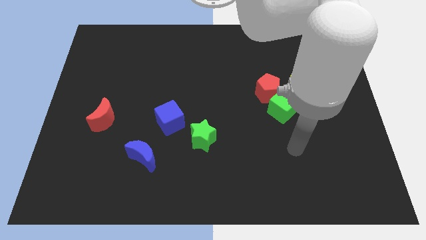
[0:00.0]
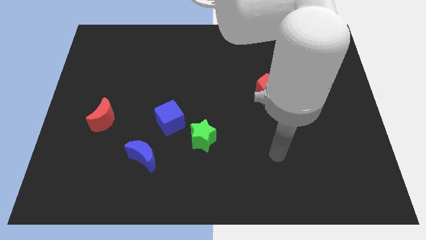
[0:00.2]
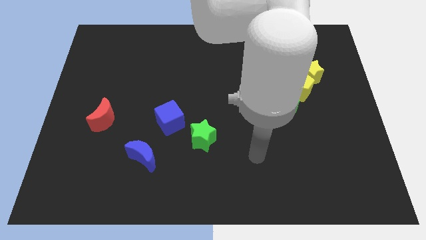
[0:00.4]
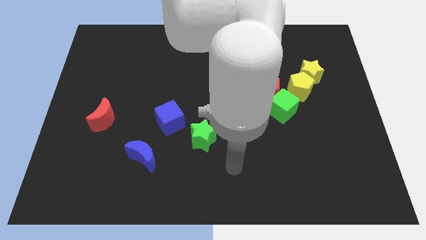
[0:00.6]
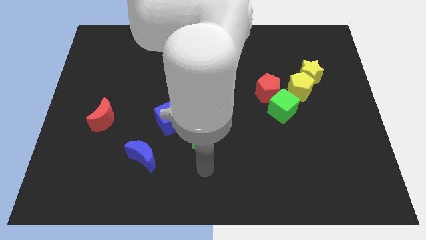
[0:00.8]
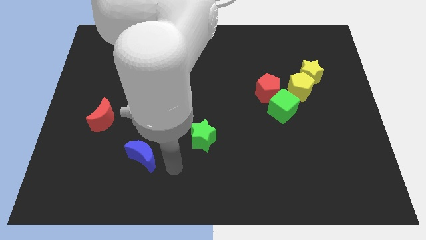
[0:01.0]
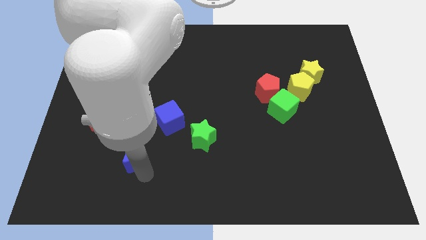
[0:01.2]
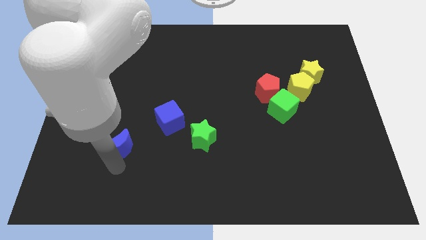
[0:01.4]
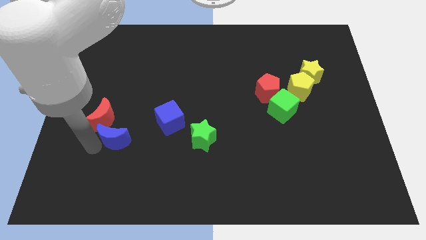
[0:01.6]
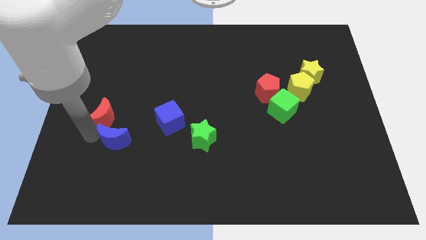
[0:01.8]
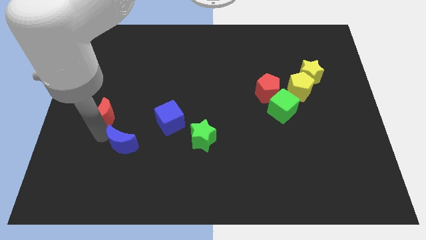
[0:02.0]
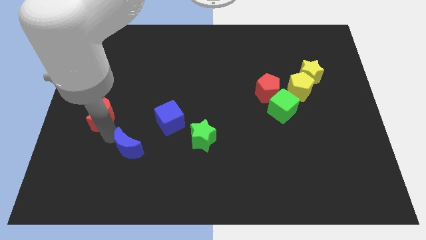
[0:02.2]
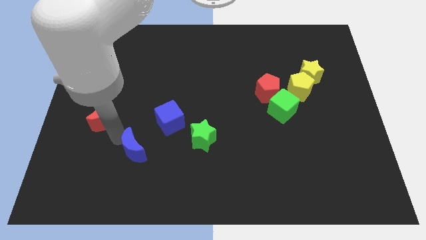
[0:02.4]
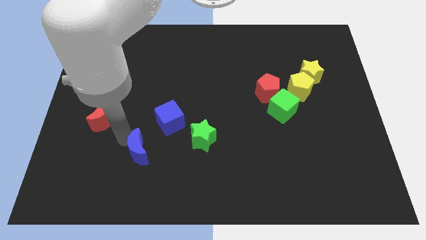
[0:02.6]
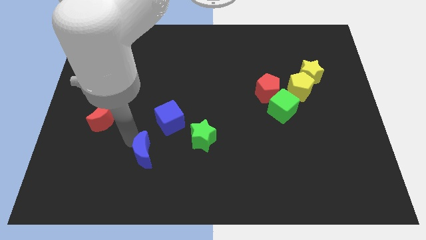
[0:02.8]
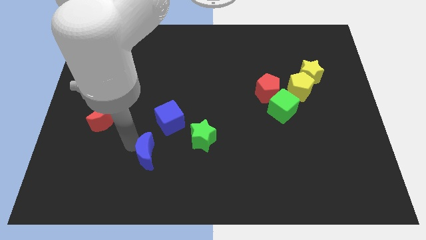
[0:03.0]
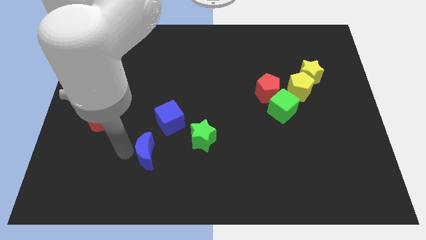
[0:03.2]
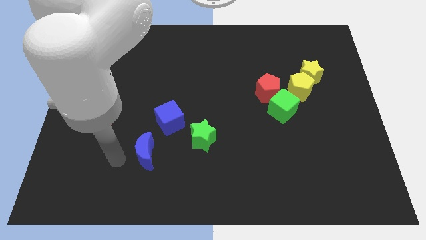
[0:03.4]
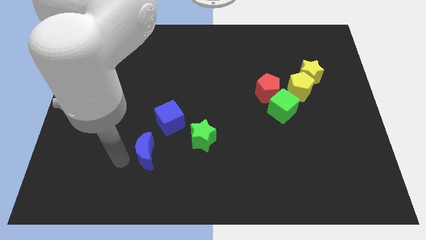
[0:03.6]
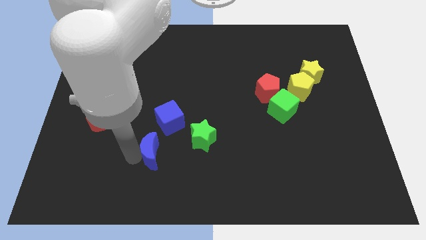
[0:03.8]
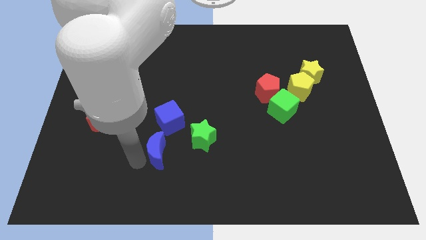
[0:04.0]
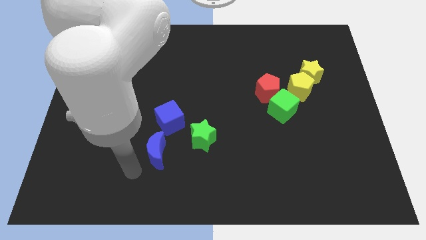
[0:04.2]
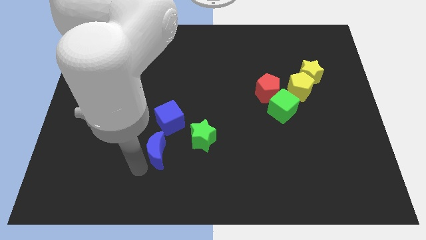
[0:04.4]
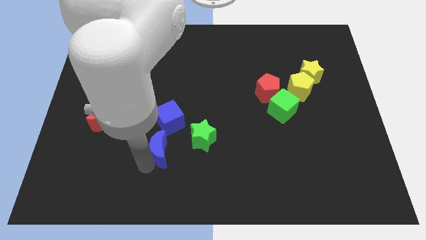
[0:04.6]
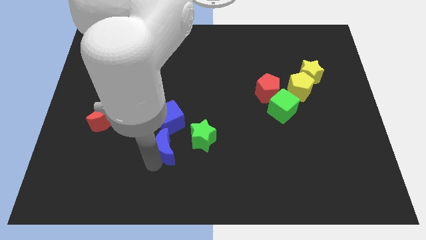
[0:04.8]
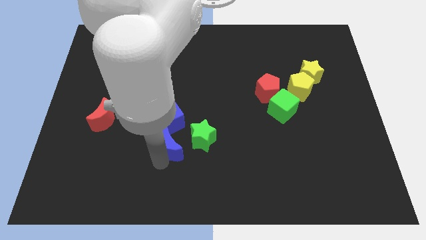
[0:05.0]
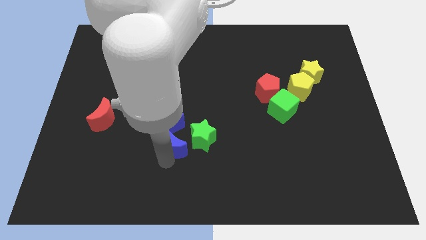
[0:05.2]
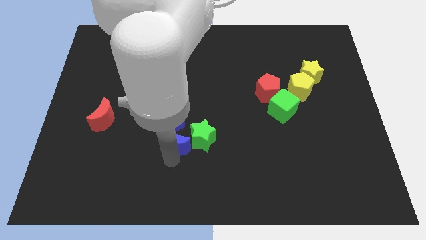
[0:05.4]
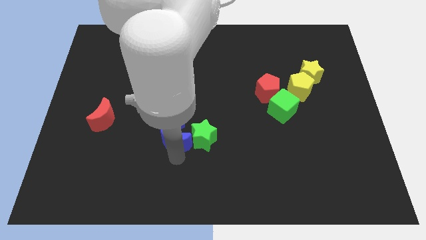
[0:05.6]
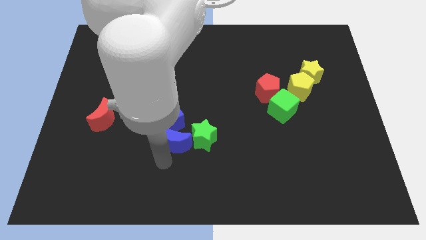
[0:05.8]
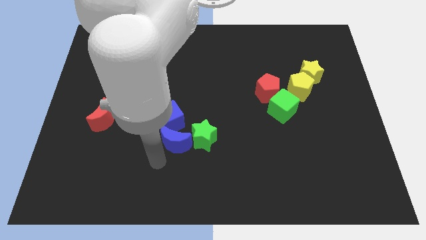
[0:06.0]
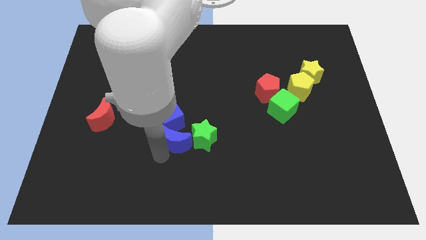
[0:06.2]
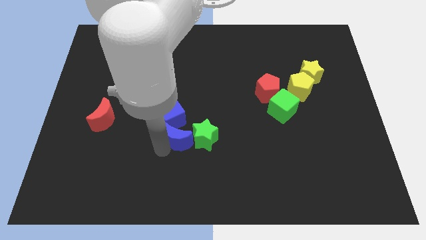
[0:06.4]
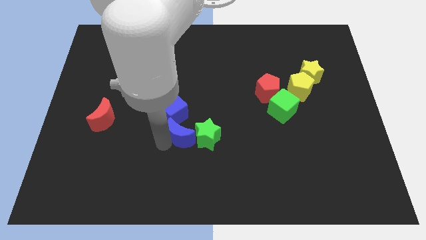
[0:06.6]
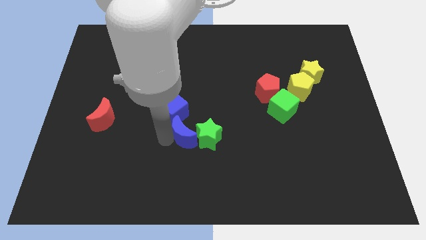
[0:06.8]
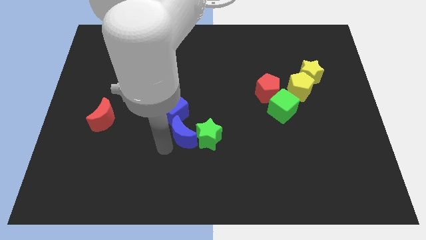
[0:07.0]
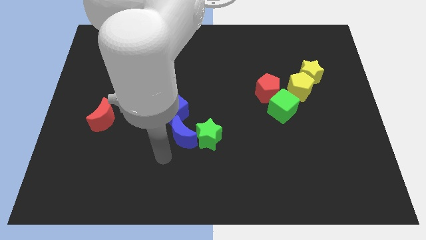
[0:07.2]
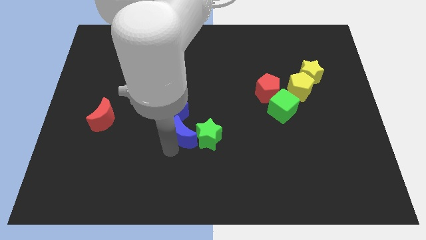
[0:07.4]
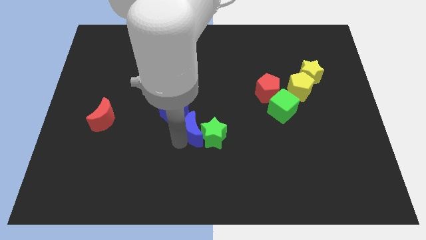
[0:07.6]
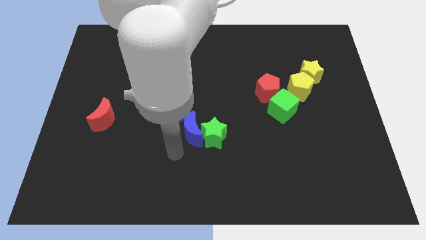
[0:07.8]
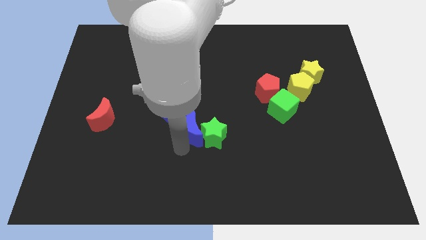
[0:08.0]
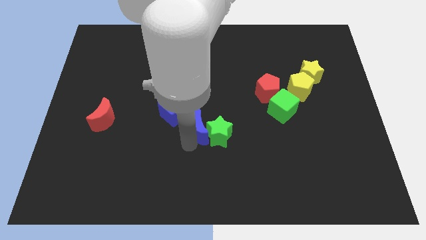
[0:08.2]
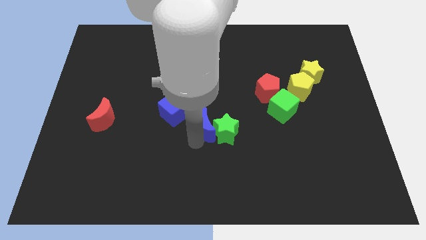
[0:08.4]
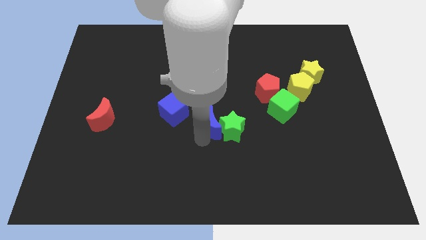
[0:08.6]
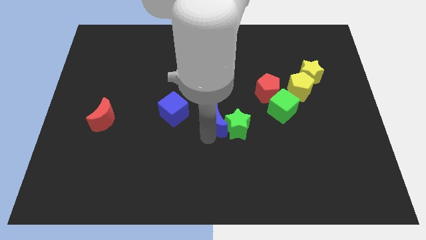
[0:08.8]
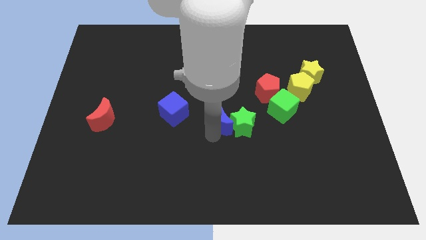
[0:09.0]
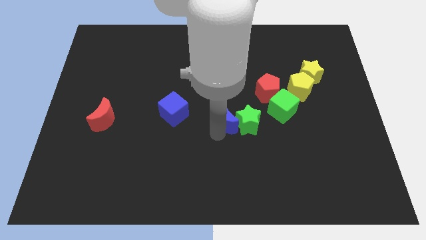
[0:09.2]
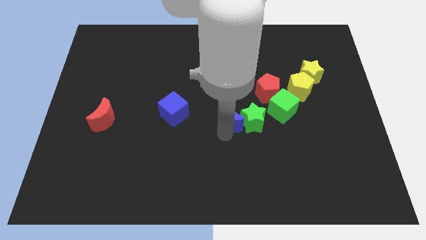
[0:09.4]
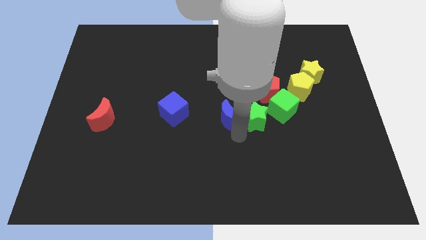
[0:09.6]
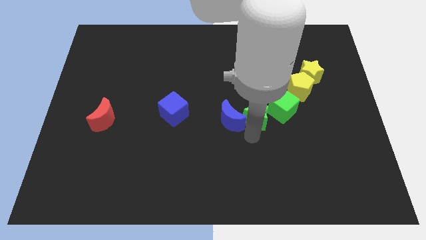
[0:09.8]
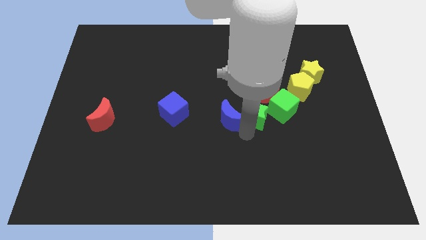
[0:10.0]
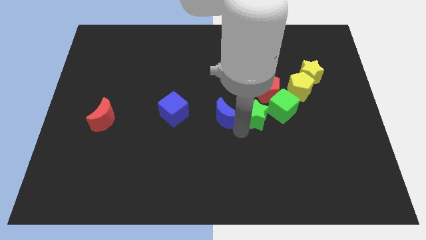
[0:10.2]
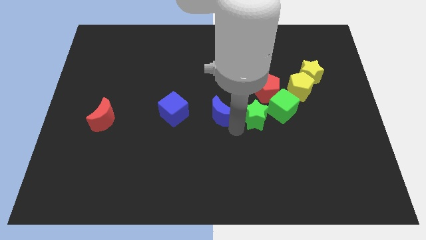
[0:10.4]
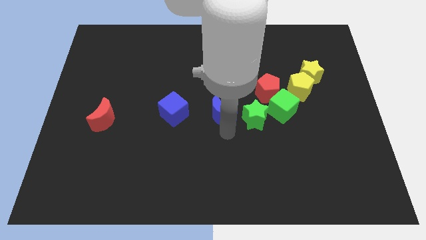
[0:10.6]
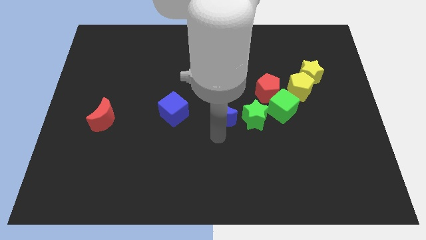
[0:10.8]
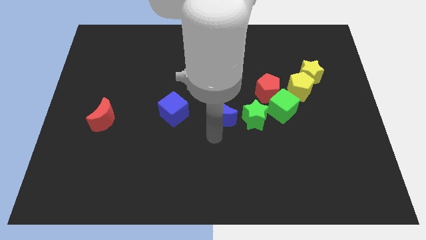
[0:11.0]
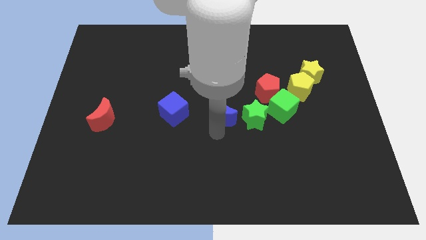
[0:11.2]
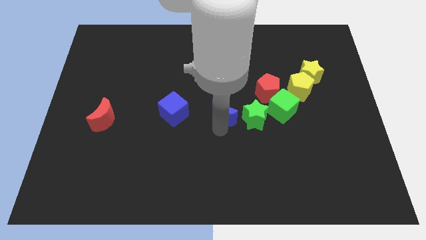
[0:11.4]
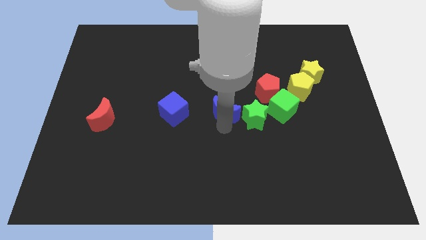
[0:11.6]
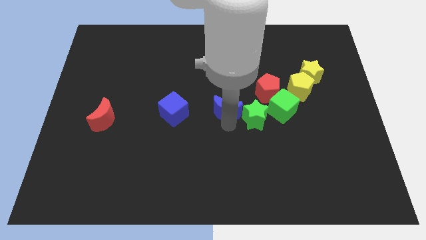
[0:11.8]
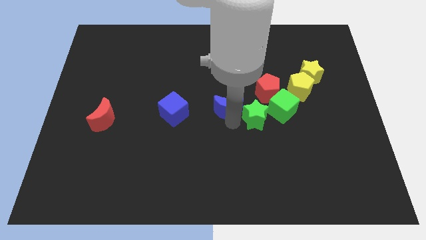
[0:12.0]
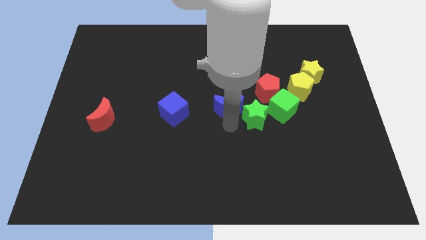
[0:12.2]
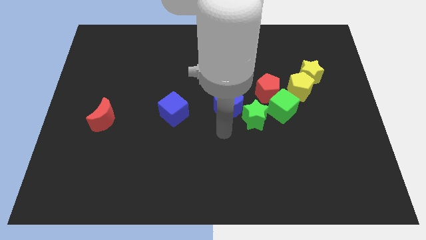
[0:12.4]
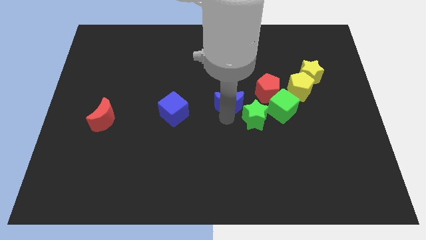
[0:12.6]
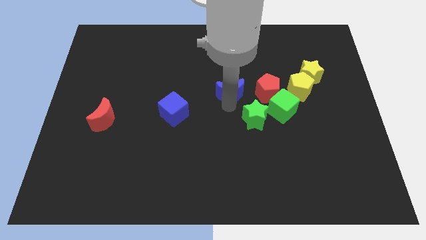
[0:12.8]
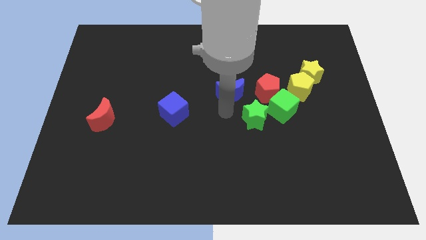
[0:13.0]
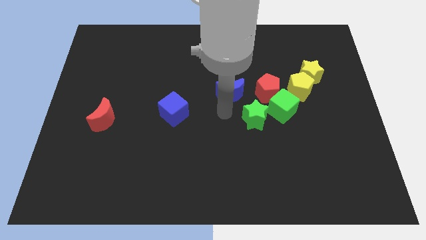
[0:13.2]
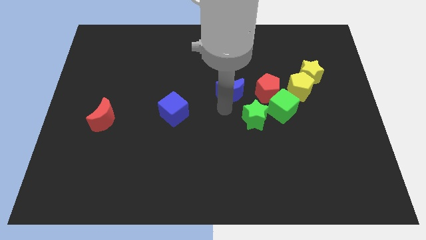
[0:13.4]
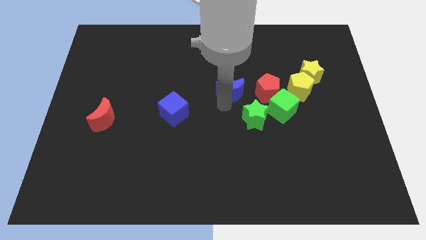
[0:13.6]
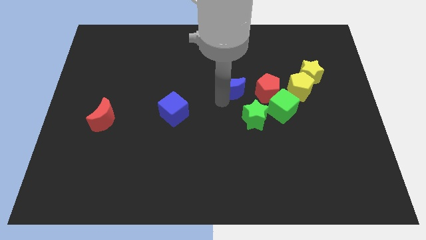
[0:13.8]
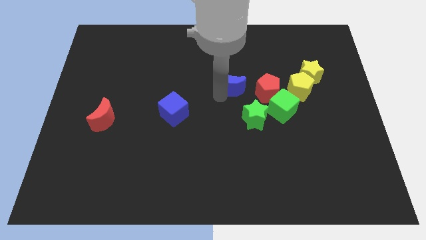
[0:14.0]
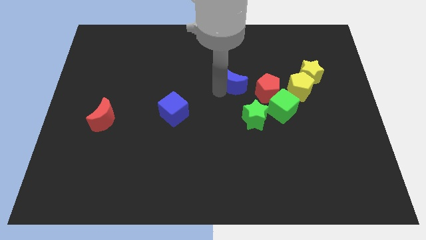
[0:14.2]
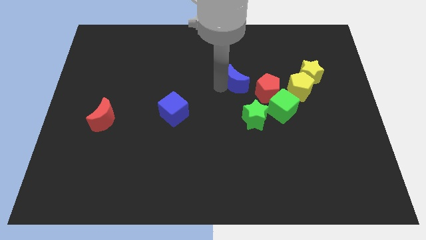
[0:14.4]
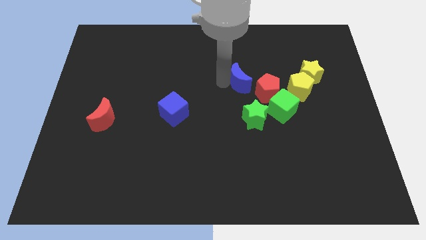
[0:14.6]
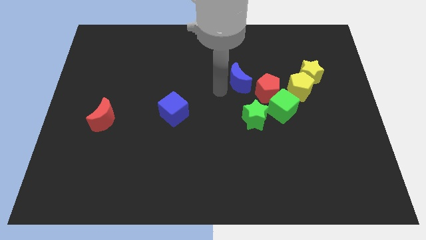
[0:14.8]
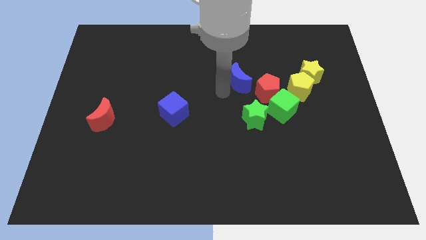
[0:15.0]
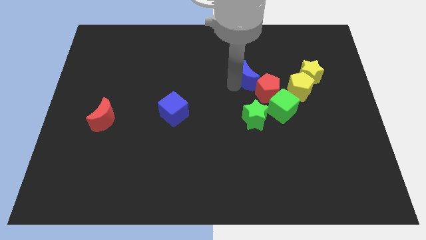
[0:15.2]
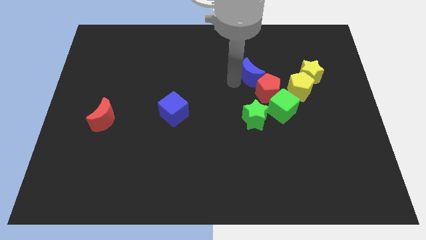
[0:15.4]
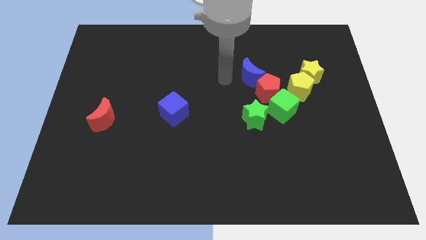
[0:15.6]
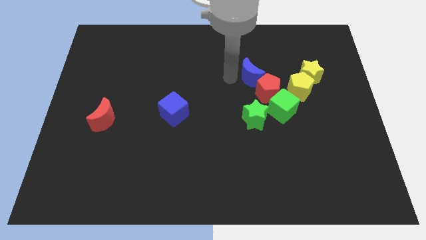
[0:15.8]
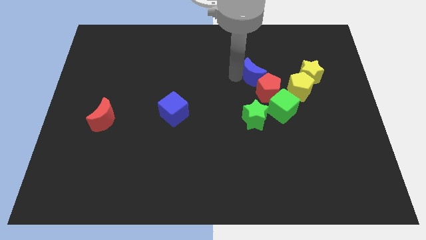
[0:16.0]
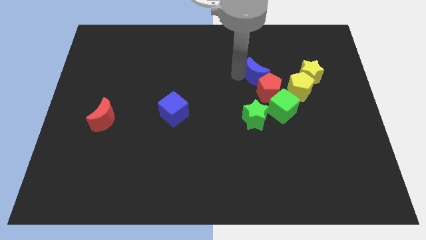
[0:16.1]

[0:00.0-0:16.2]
move the blue moon diagonally up and to the left of the yellow pentagon
